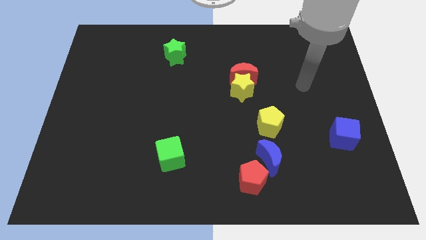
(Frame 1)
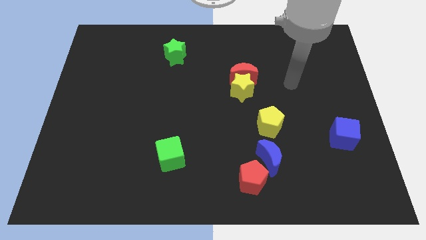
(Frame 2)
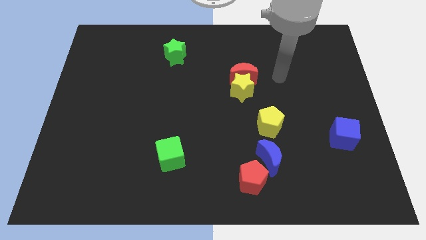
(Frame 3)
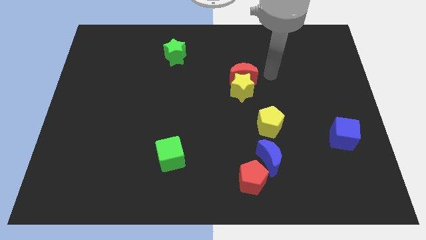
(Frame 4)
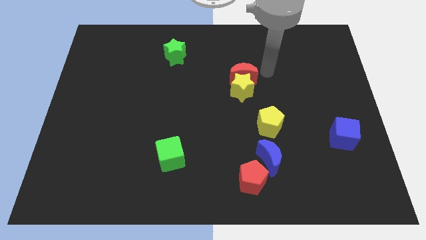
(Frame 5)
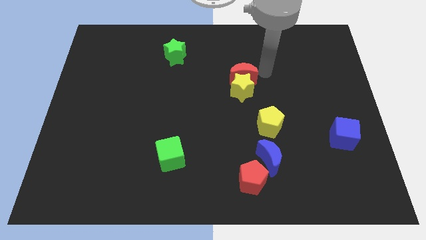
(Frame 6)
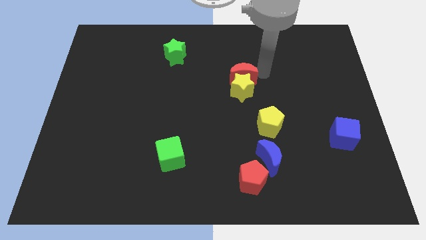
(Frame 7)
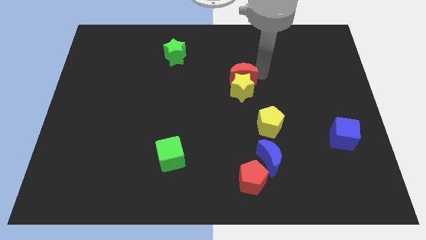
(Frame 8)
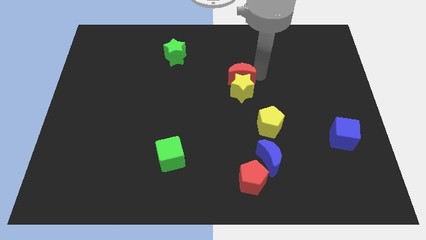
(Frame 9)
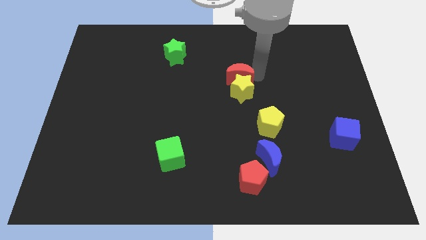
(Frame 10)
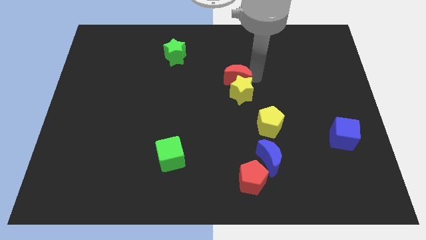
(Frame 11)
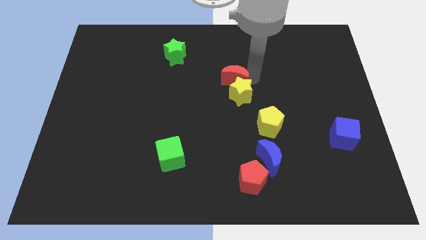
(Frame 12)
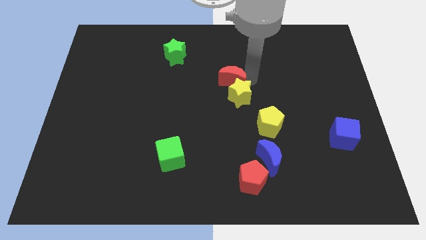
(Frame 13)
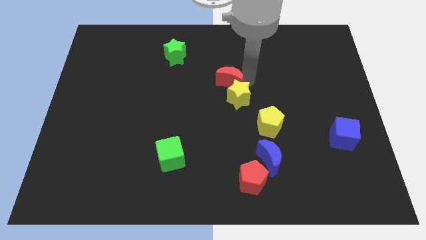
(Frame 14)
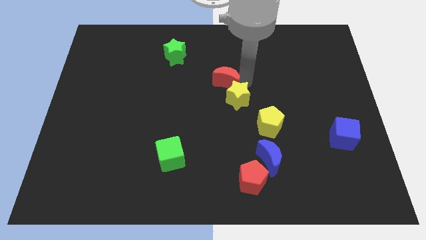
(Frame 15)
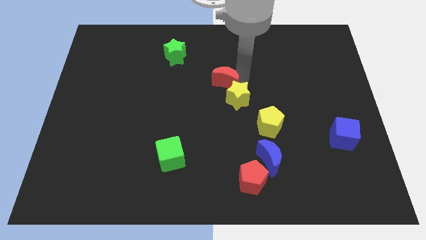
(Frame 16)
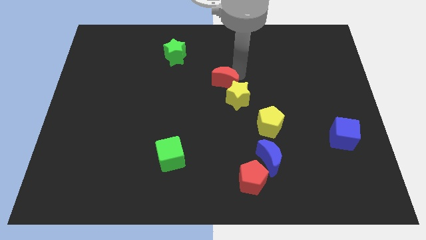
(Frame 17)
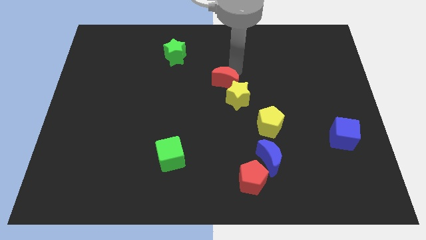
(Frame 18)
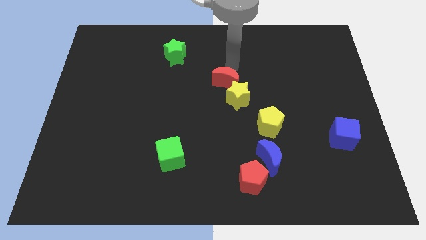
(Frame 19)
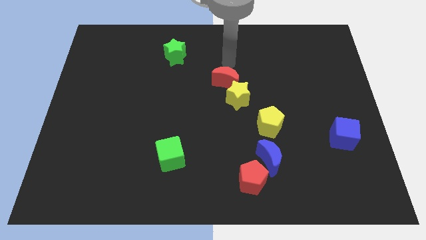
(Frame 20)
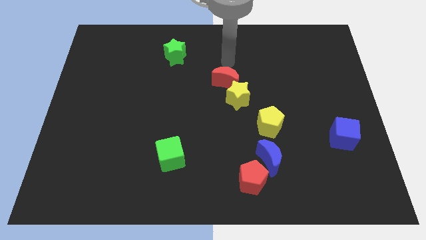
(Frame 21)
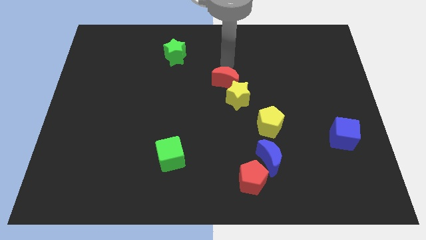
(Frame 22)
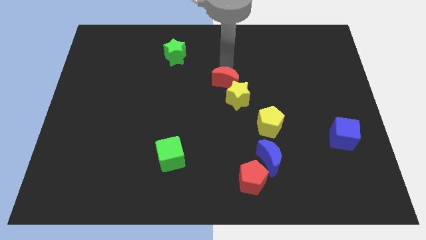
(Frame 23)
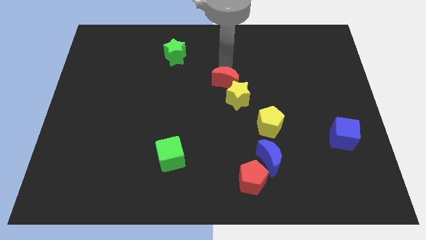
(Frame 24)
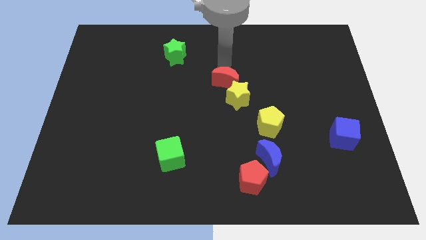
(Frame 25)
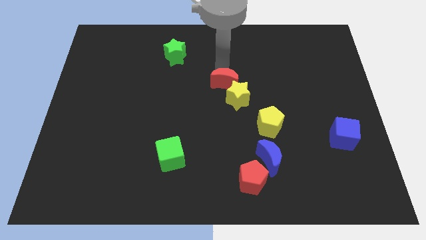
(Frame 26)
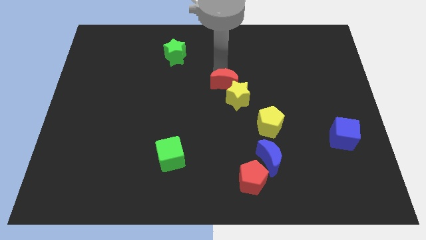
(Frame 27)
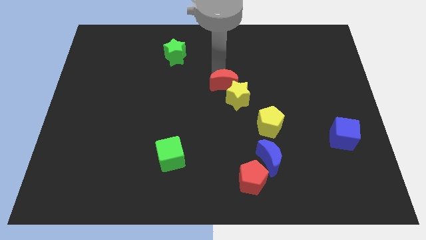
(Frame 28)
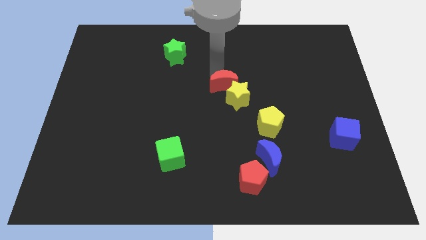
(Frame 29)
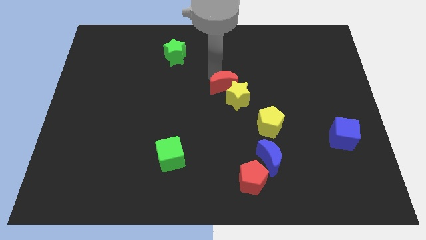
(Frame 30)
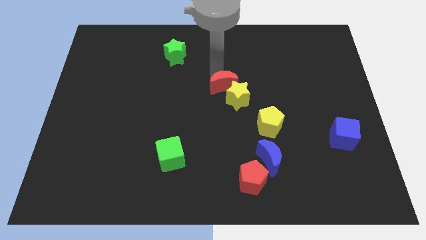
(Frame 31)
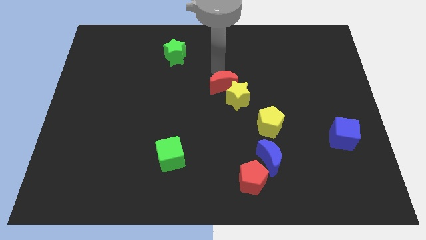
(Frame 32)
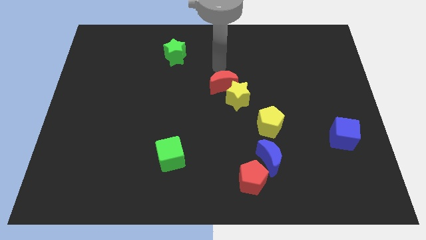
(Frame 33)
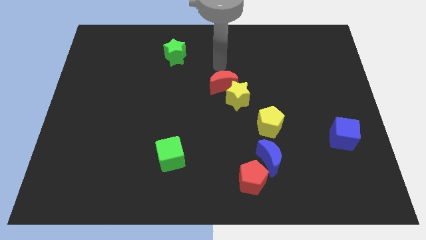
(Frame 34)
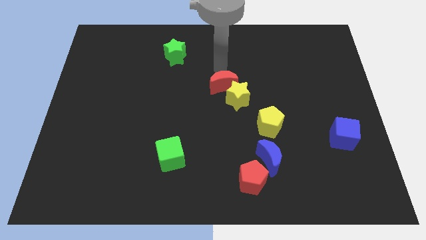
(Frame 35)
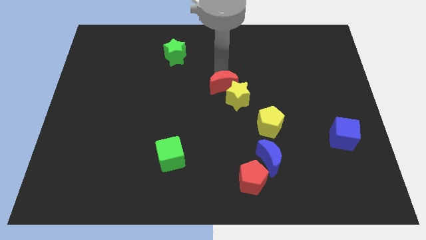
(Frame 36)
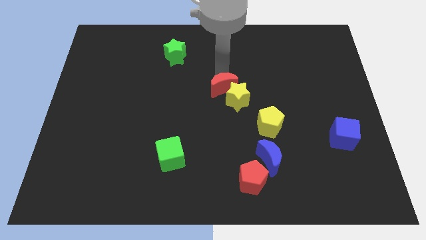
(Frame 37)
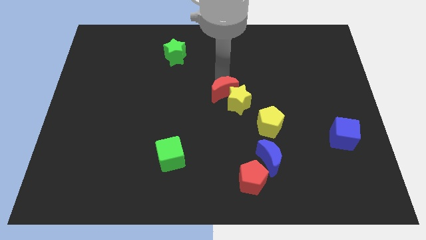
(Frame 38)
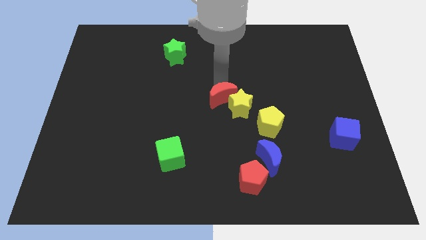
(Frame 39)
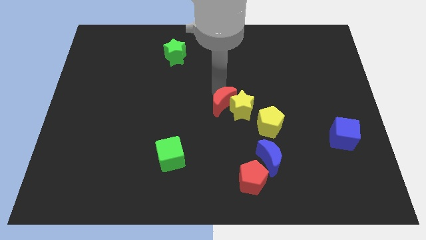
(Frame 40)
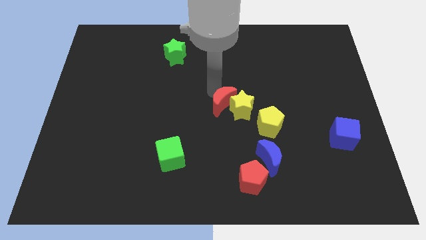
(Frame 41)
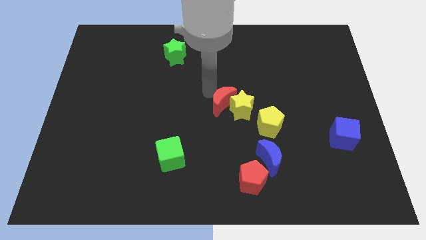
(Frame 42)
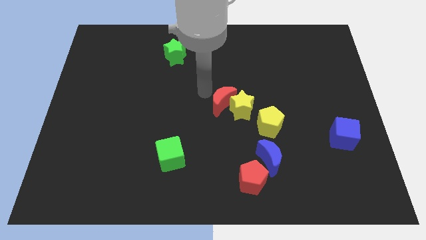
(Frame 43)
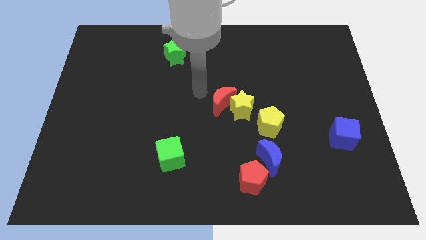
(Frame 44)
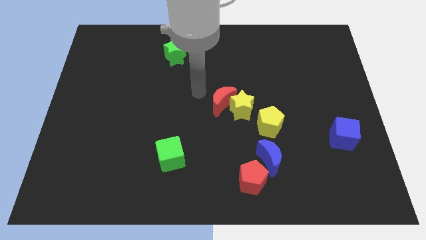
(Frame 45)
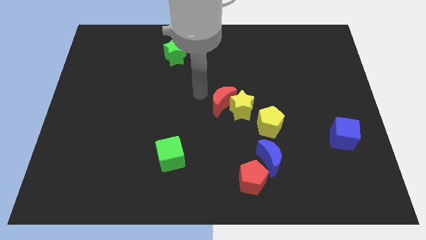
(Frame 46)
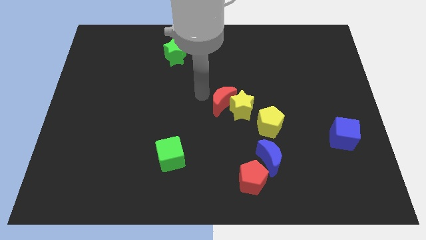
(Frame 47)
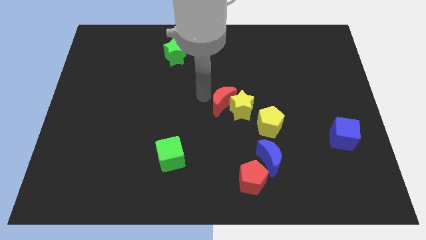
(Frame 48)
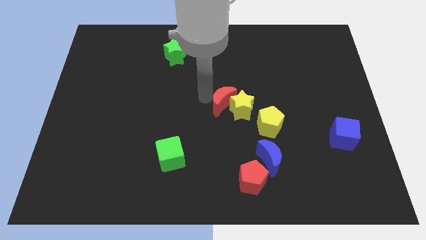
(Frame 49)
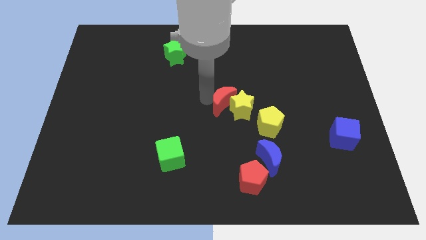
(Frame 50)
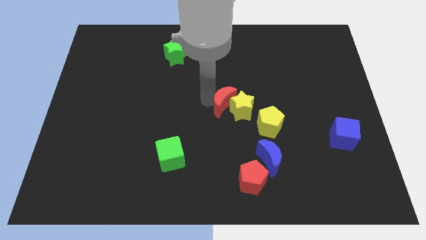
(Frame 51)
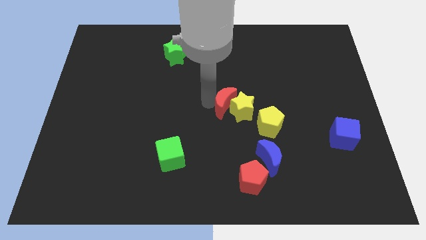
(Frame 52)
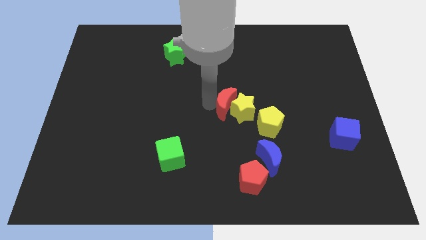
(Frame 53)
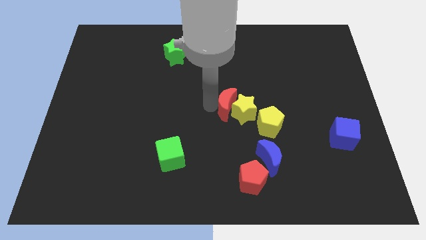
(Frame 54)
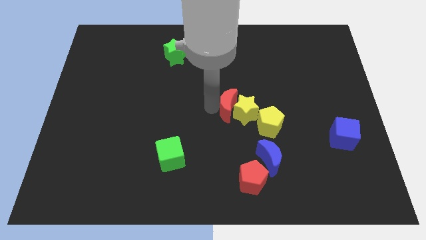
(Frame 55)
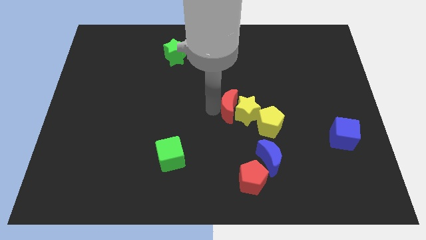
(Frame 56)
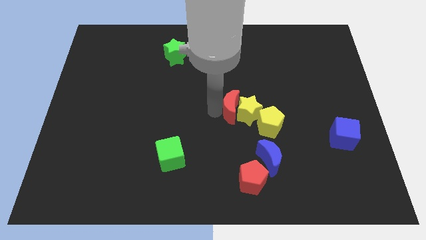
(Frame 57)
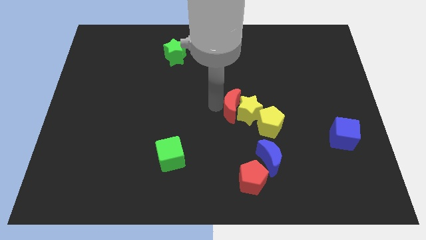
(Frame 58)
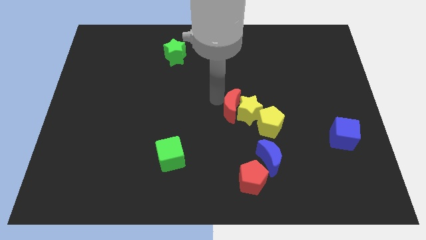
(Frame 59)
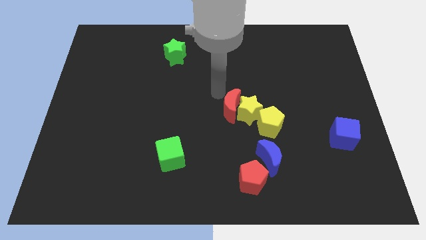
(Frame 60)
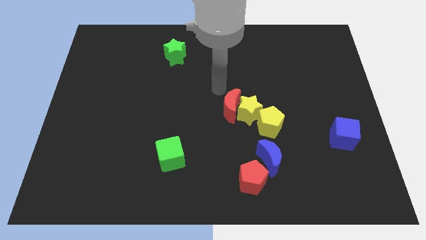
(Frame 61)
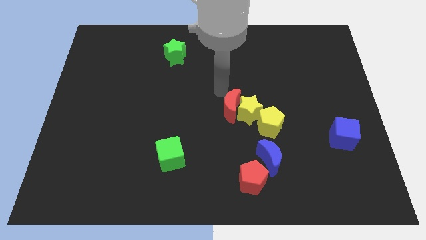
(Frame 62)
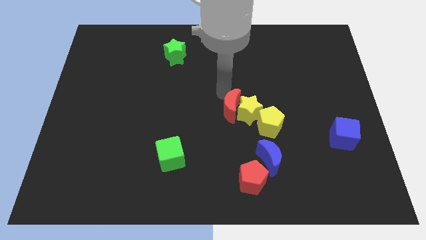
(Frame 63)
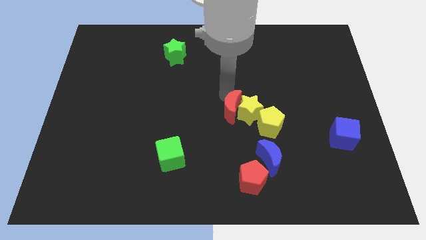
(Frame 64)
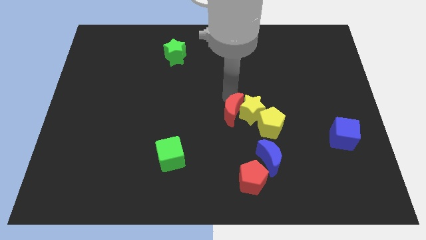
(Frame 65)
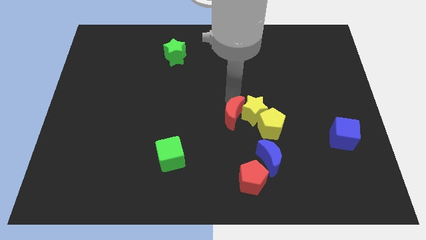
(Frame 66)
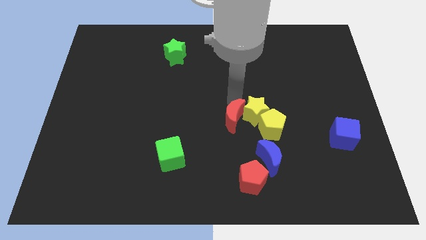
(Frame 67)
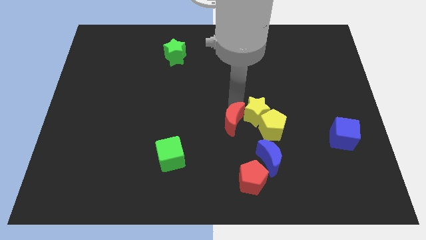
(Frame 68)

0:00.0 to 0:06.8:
put the red moon to the top side of the red pentagon

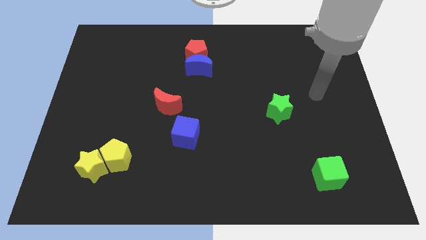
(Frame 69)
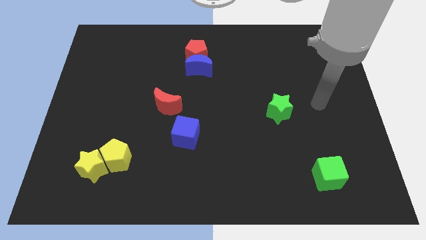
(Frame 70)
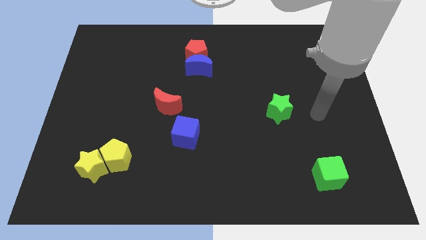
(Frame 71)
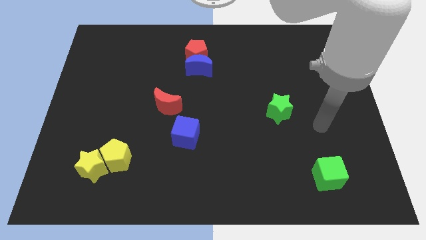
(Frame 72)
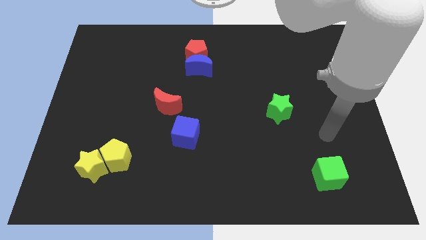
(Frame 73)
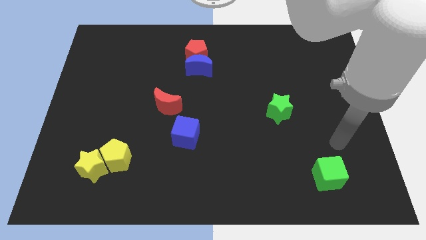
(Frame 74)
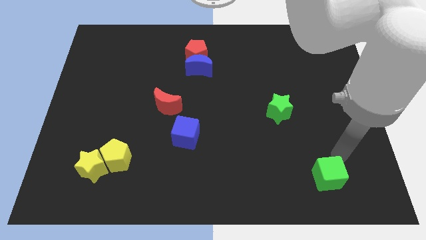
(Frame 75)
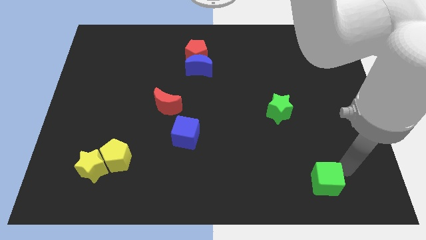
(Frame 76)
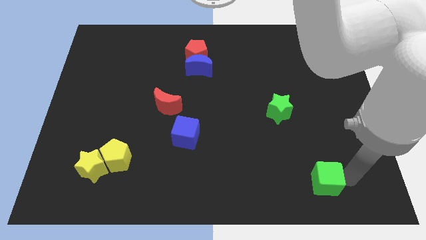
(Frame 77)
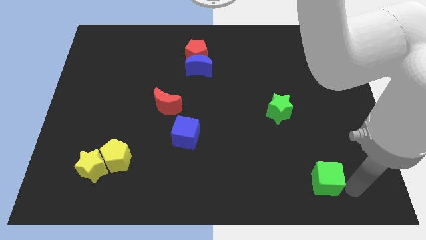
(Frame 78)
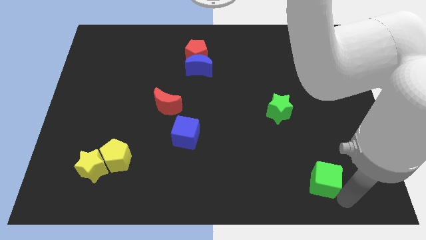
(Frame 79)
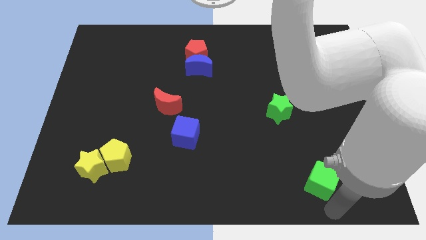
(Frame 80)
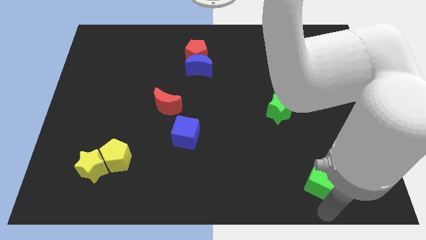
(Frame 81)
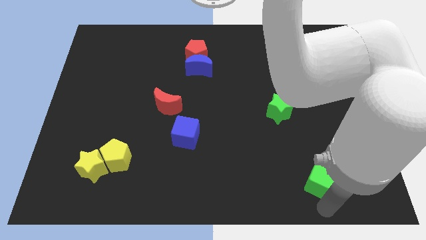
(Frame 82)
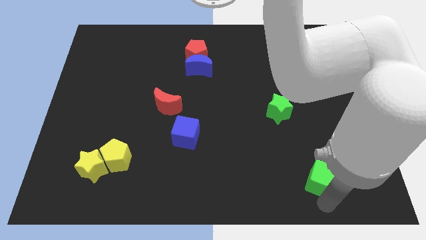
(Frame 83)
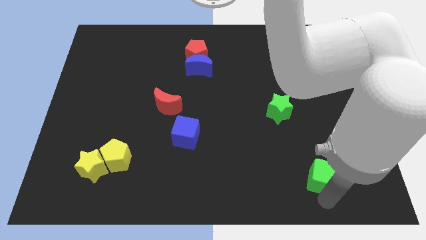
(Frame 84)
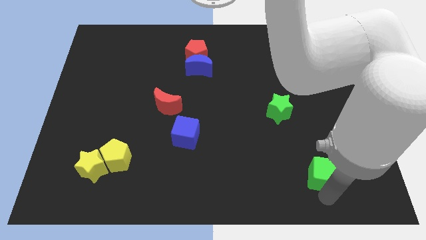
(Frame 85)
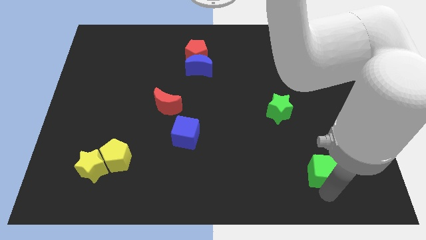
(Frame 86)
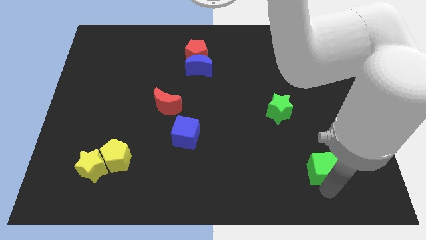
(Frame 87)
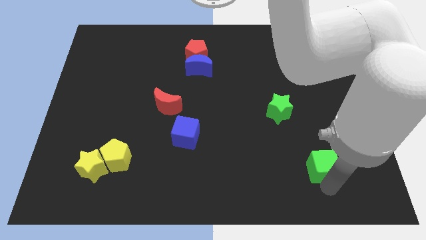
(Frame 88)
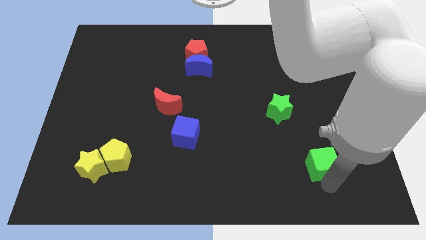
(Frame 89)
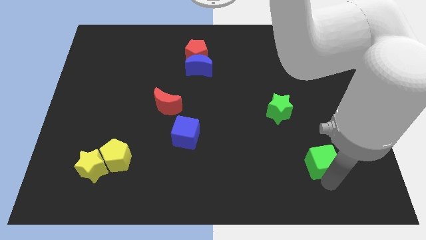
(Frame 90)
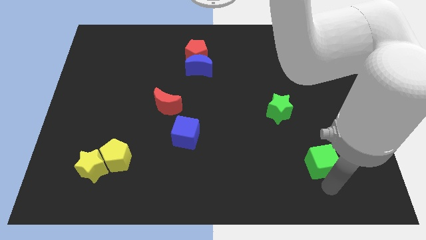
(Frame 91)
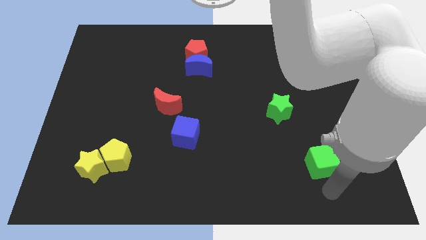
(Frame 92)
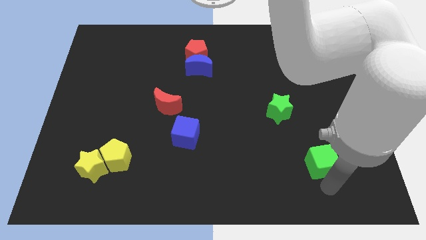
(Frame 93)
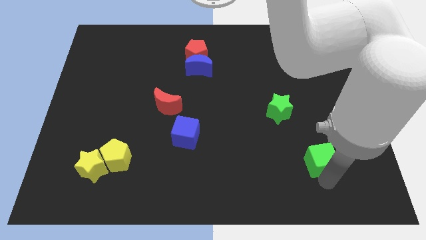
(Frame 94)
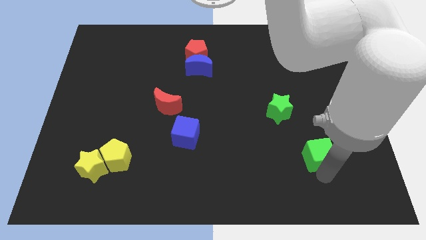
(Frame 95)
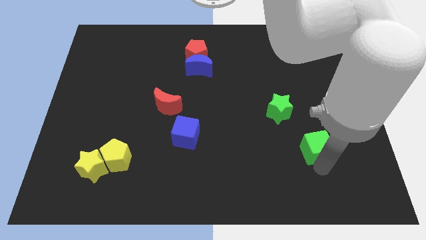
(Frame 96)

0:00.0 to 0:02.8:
put the green cube diagonally down and to the right of the green star
